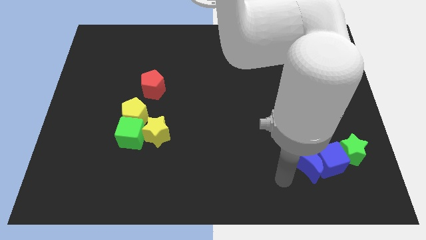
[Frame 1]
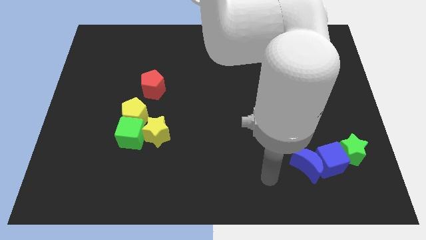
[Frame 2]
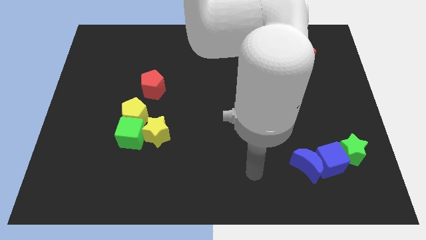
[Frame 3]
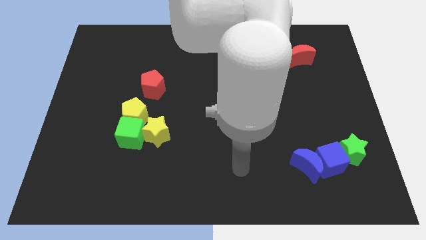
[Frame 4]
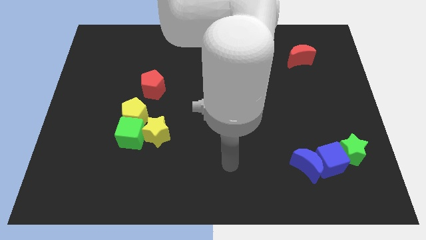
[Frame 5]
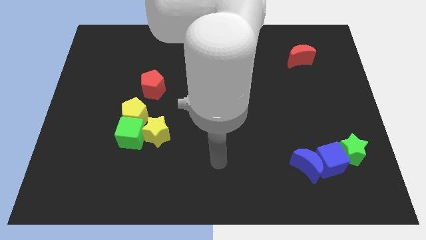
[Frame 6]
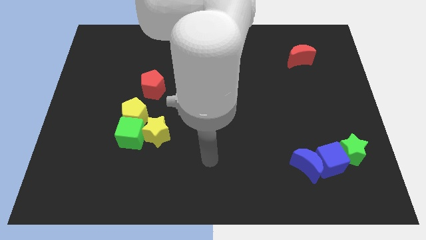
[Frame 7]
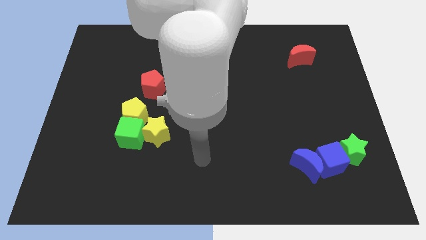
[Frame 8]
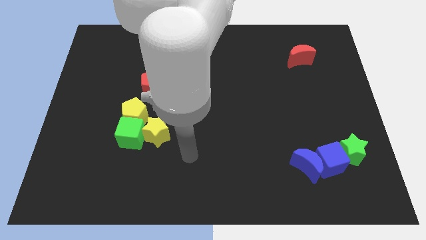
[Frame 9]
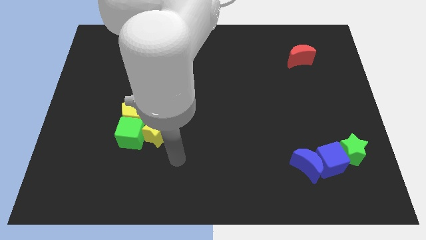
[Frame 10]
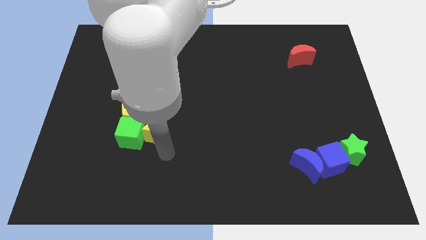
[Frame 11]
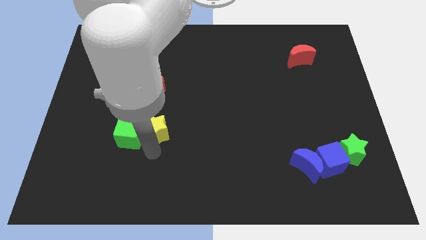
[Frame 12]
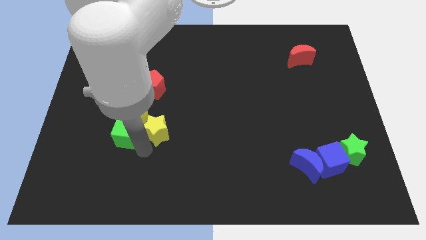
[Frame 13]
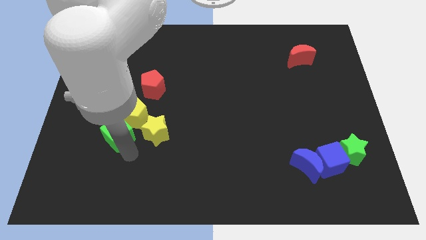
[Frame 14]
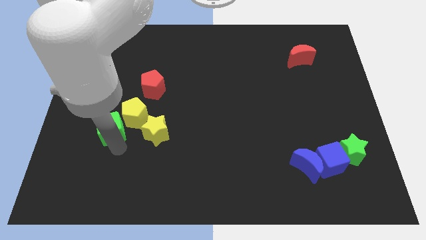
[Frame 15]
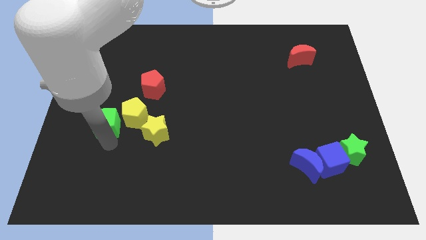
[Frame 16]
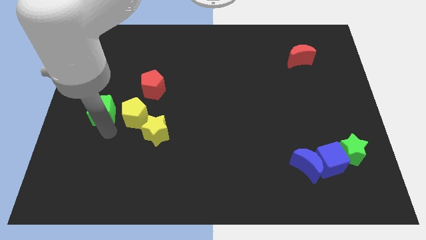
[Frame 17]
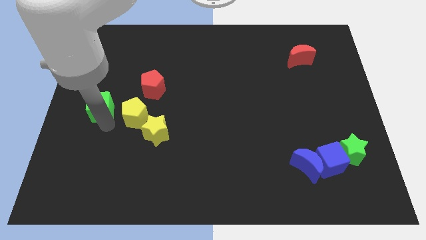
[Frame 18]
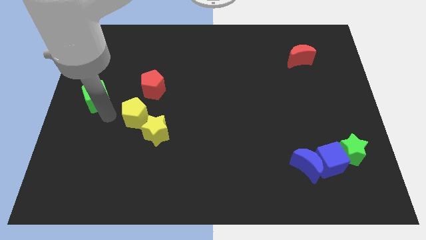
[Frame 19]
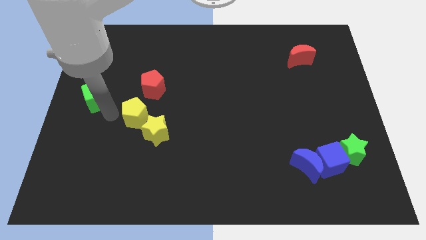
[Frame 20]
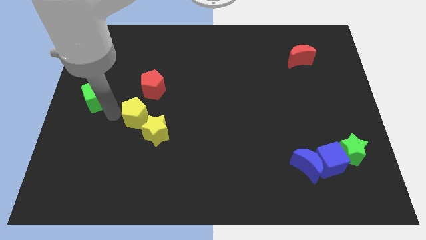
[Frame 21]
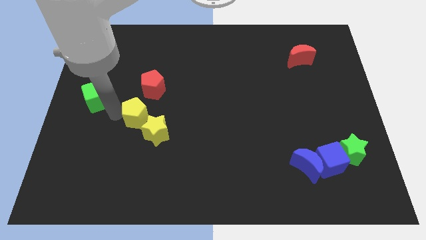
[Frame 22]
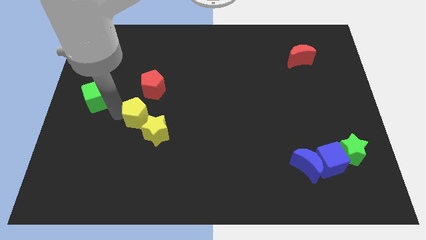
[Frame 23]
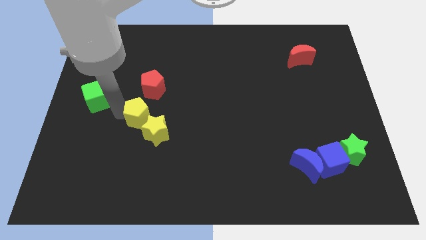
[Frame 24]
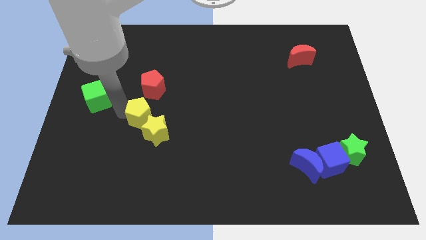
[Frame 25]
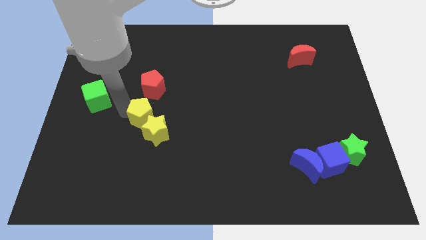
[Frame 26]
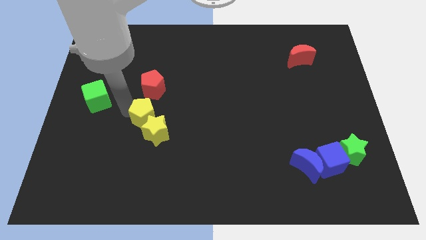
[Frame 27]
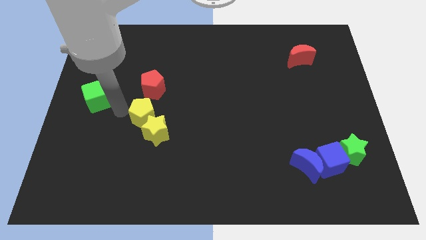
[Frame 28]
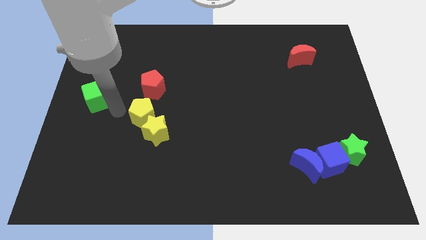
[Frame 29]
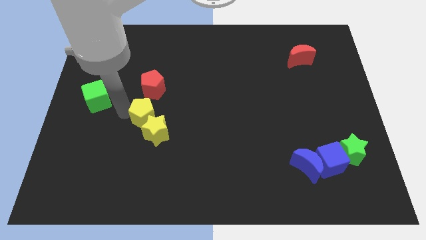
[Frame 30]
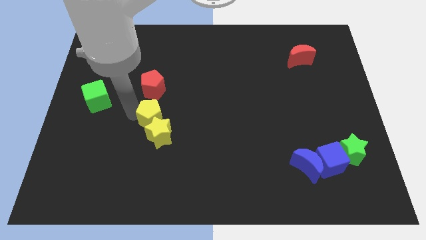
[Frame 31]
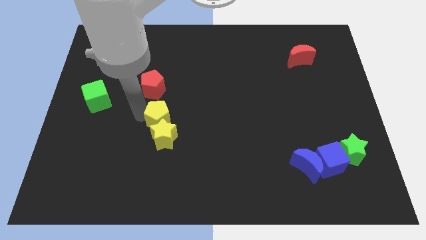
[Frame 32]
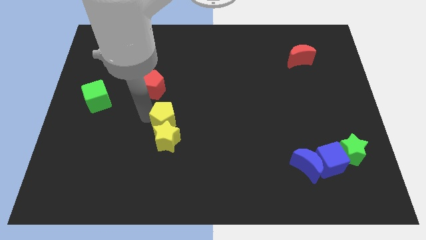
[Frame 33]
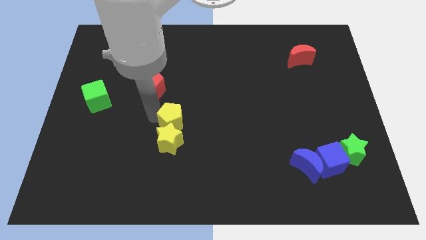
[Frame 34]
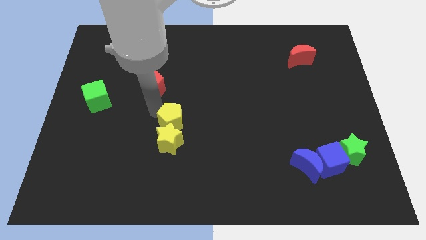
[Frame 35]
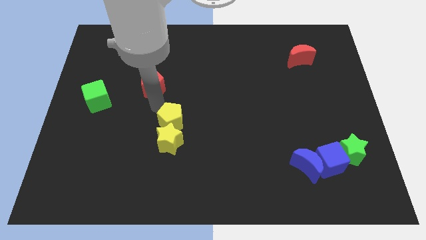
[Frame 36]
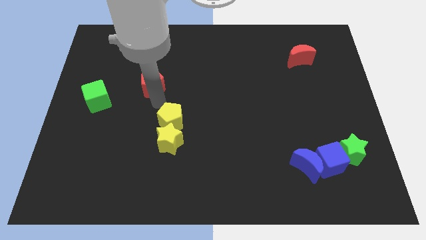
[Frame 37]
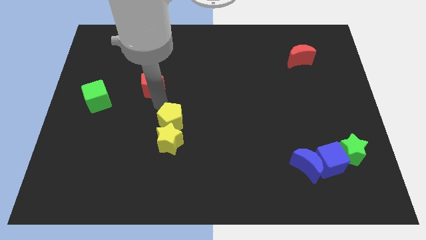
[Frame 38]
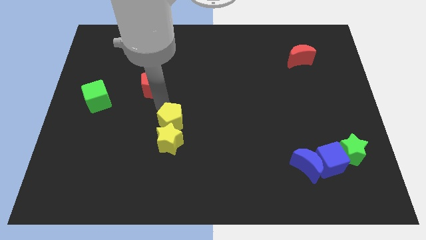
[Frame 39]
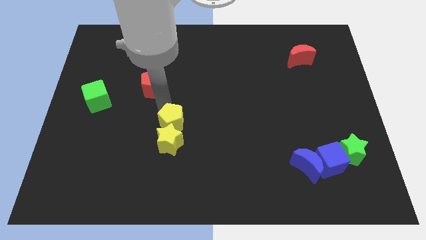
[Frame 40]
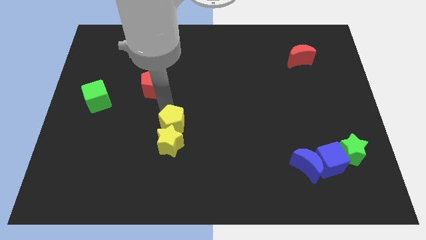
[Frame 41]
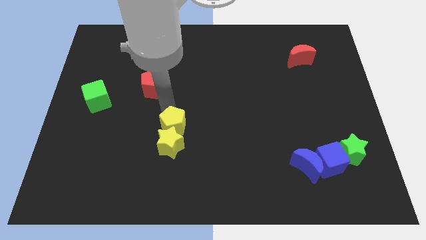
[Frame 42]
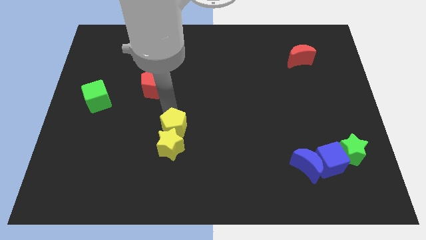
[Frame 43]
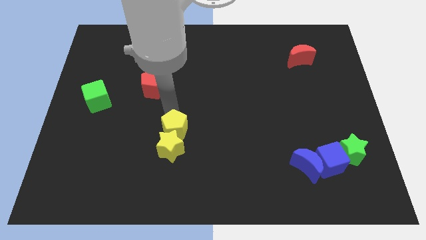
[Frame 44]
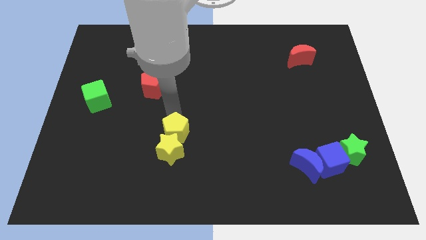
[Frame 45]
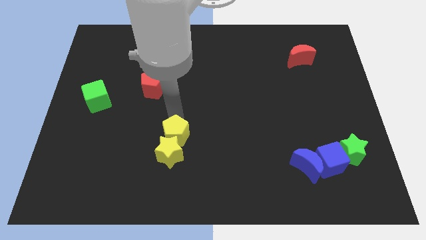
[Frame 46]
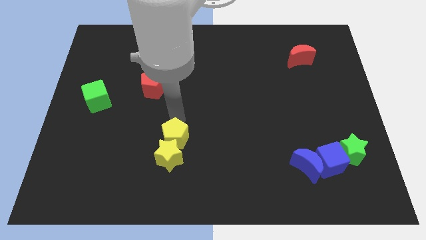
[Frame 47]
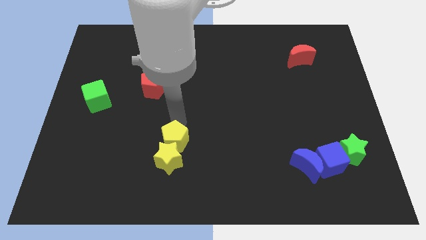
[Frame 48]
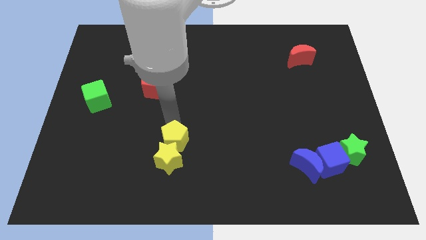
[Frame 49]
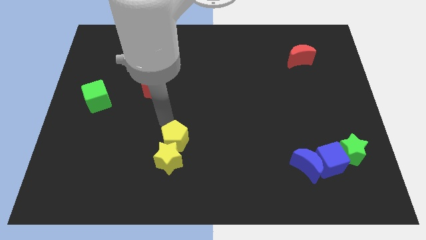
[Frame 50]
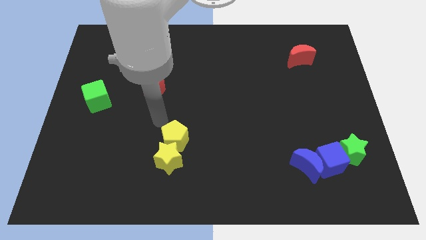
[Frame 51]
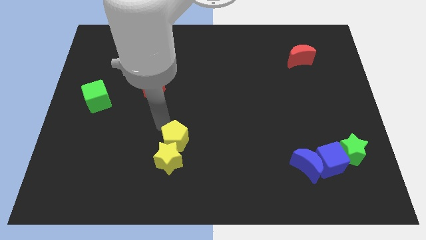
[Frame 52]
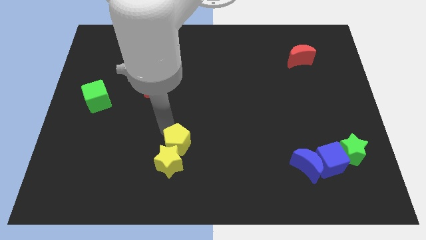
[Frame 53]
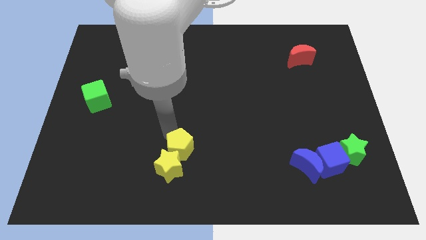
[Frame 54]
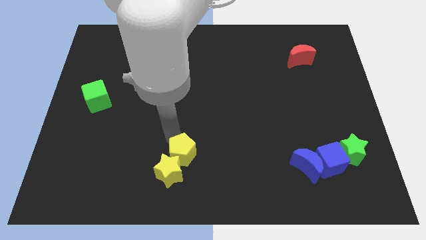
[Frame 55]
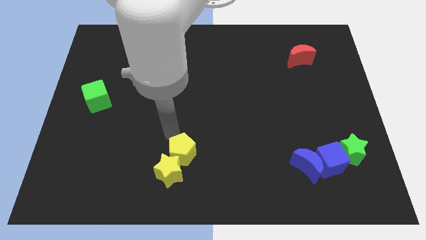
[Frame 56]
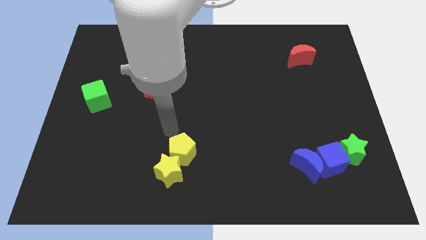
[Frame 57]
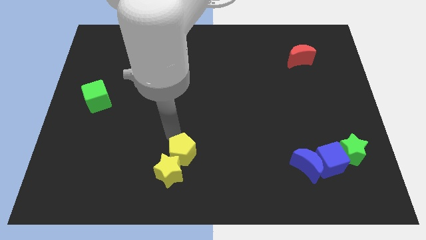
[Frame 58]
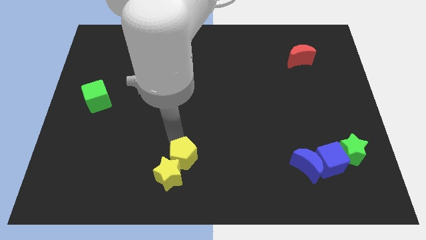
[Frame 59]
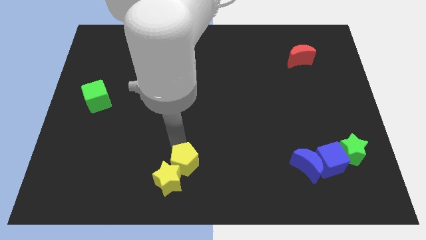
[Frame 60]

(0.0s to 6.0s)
put the yellow pentagon to the bottom side

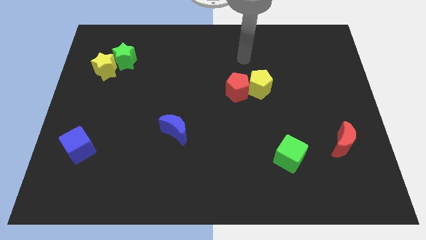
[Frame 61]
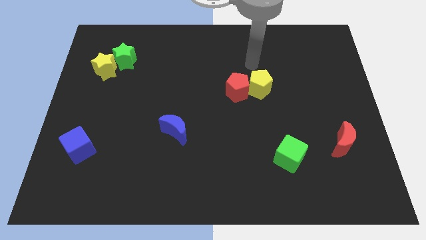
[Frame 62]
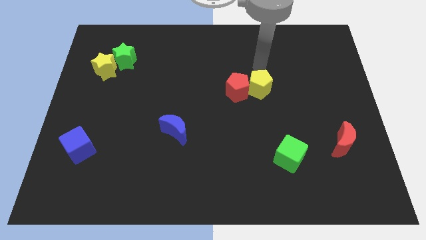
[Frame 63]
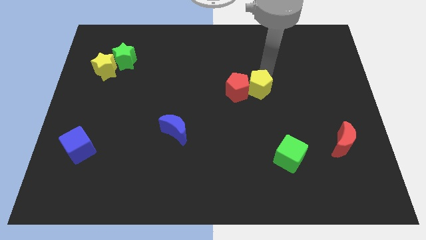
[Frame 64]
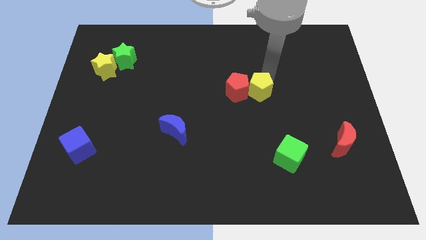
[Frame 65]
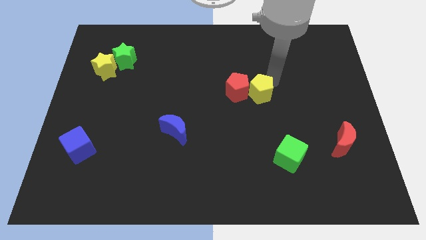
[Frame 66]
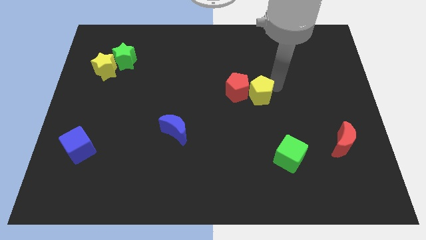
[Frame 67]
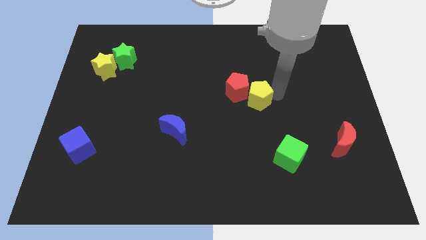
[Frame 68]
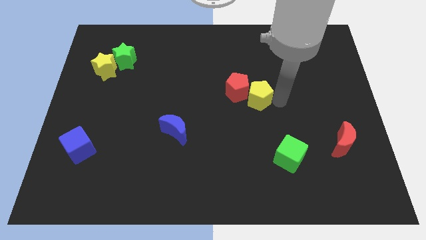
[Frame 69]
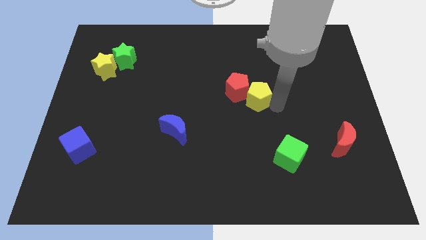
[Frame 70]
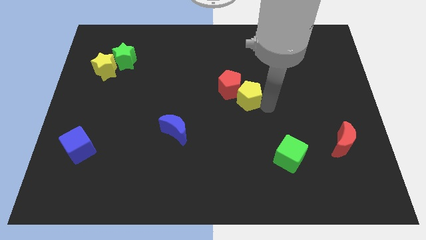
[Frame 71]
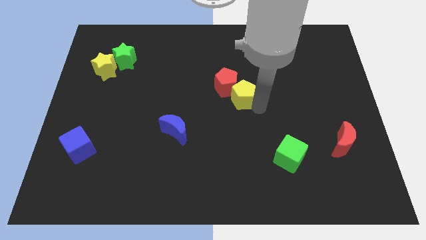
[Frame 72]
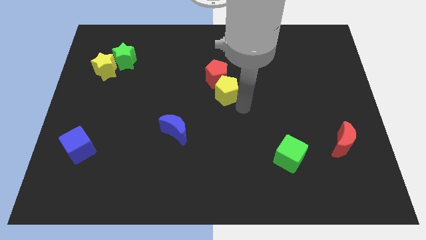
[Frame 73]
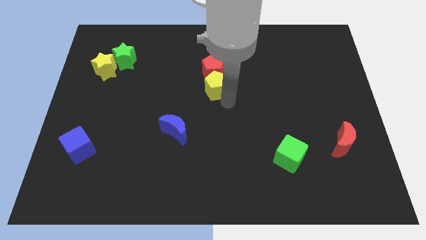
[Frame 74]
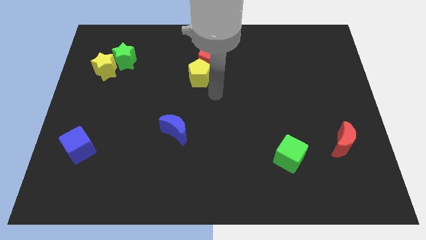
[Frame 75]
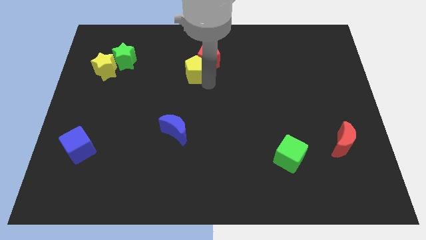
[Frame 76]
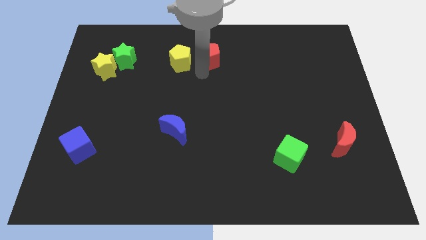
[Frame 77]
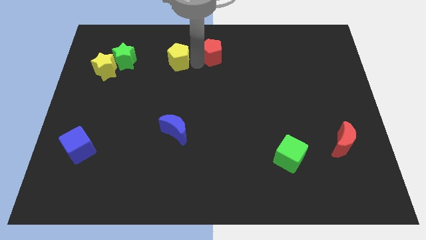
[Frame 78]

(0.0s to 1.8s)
move the red pentagon to the top side
